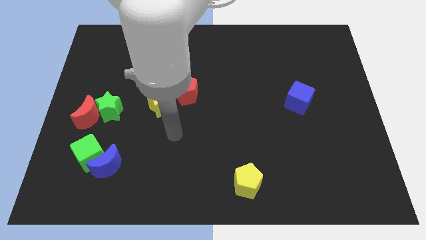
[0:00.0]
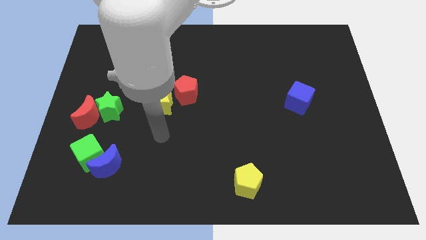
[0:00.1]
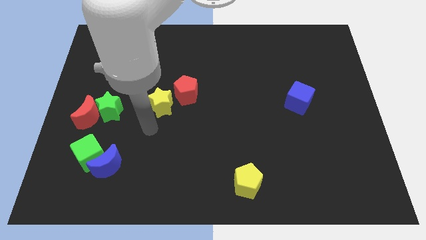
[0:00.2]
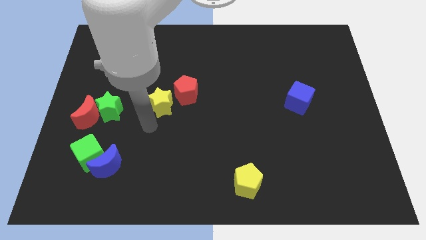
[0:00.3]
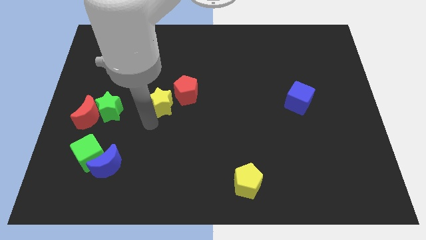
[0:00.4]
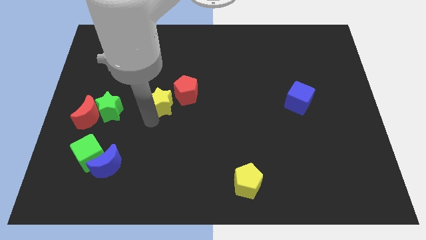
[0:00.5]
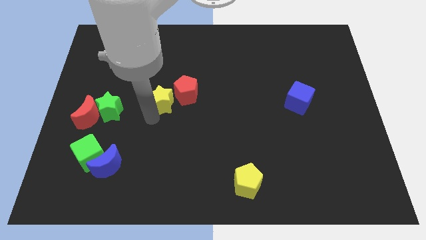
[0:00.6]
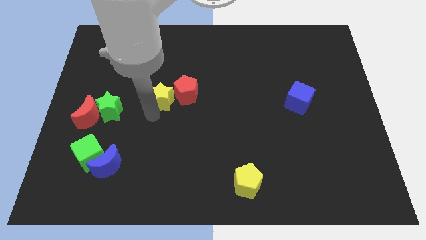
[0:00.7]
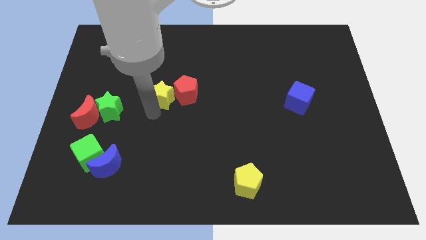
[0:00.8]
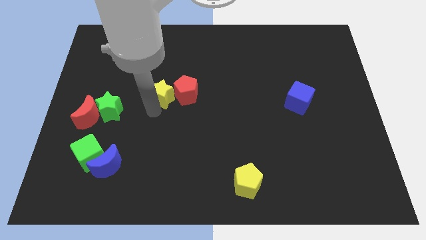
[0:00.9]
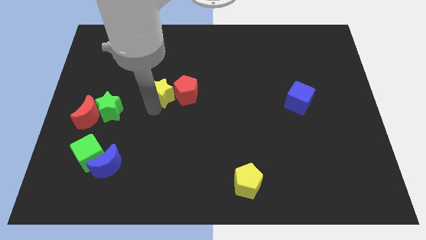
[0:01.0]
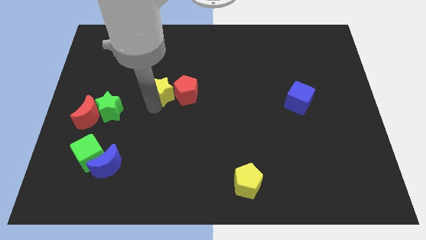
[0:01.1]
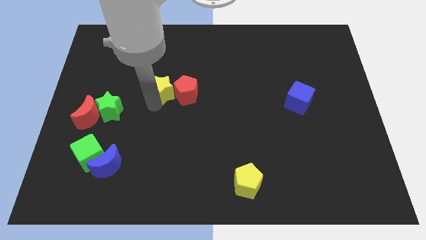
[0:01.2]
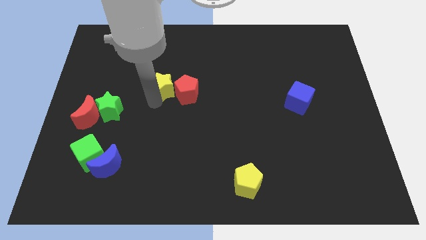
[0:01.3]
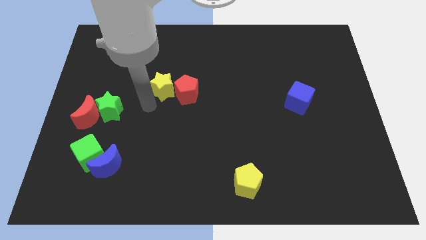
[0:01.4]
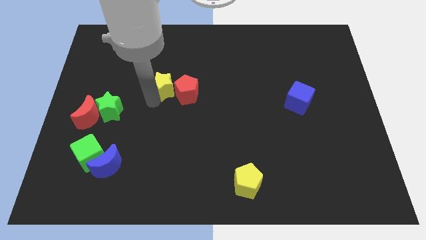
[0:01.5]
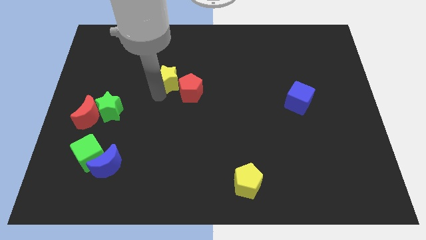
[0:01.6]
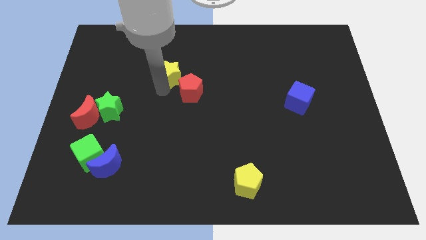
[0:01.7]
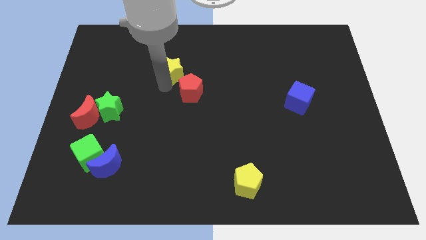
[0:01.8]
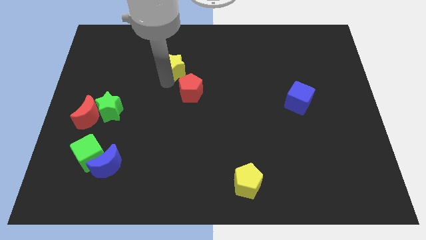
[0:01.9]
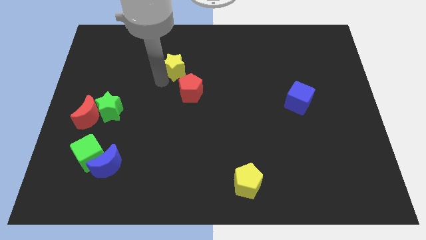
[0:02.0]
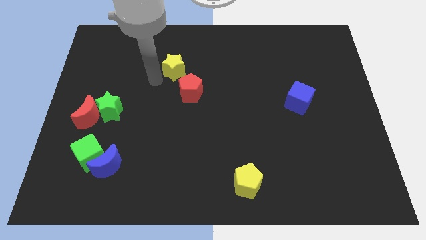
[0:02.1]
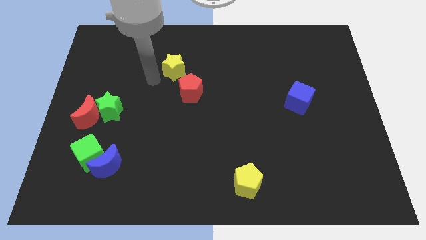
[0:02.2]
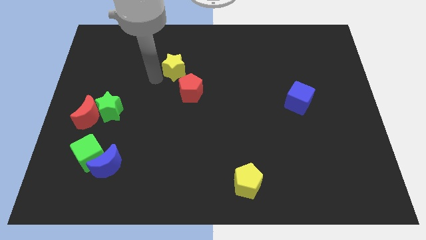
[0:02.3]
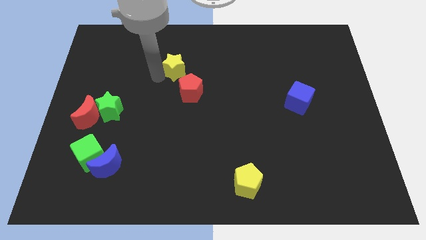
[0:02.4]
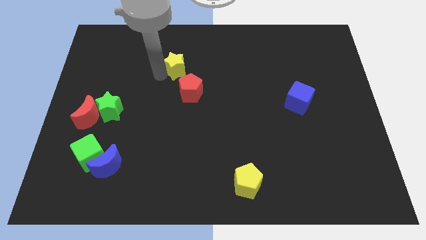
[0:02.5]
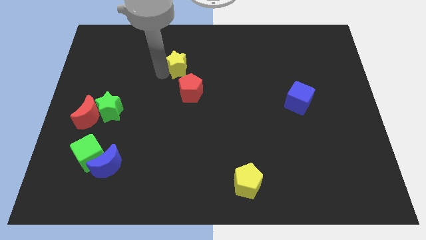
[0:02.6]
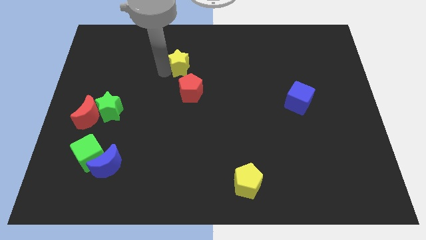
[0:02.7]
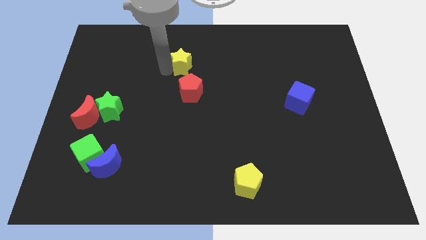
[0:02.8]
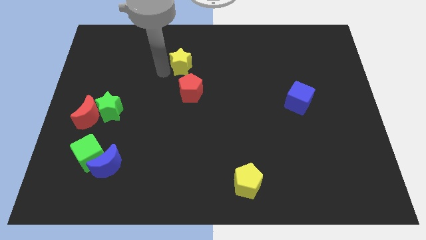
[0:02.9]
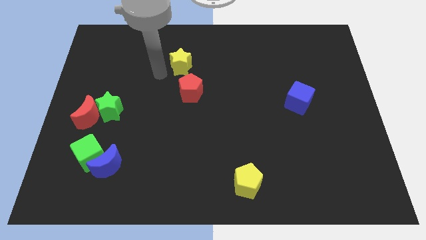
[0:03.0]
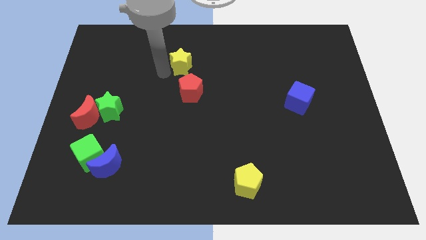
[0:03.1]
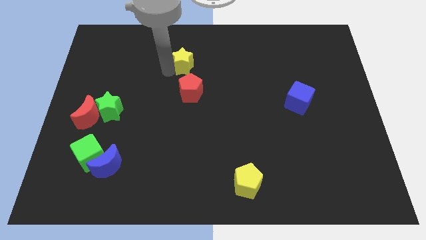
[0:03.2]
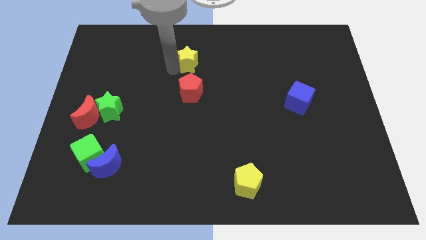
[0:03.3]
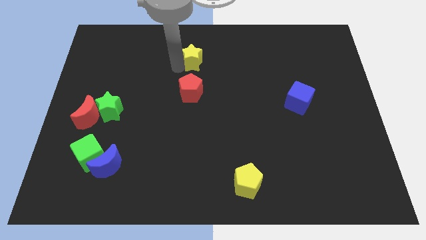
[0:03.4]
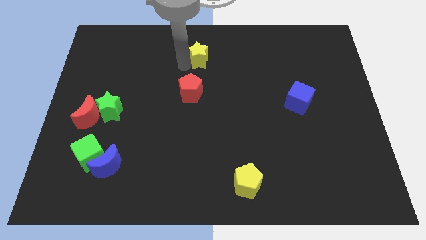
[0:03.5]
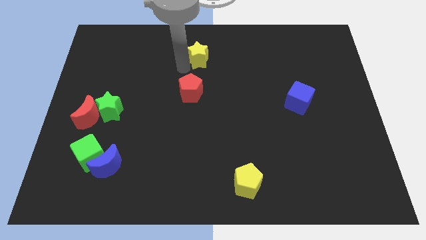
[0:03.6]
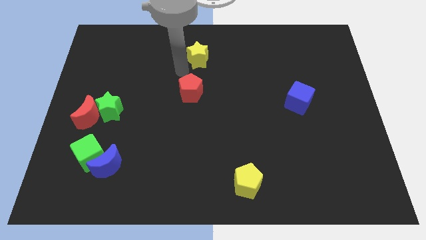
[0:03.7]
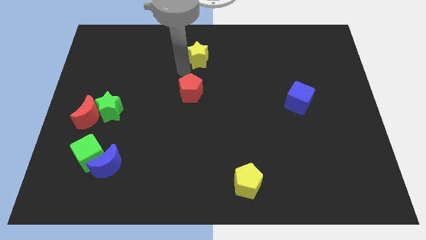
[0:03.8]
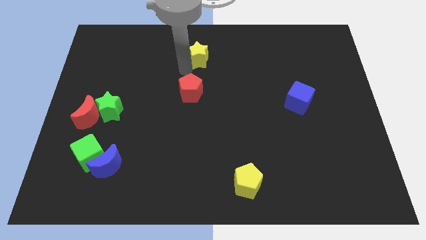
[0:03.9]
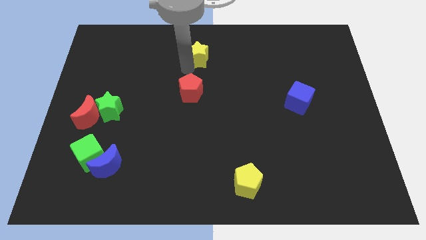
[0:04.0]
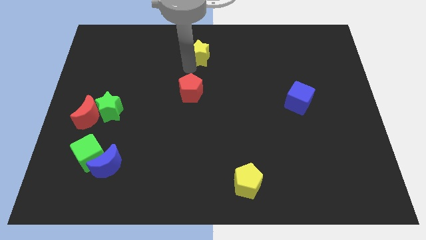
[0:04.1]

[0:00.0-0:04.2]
move the yellow star to the top

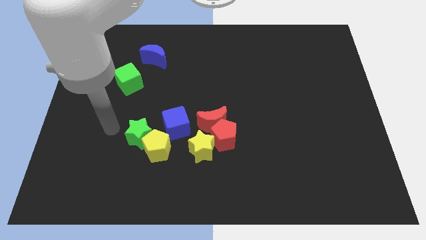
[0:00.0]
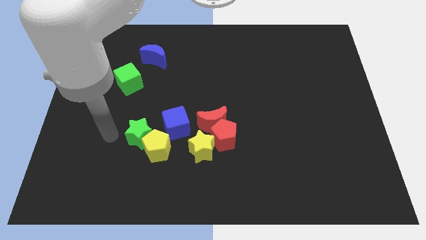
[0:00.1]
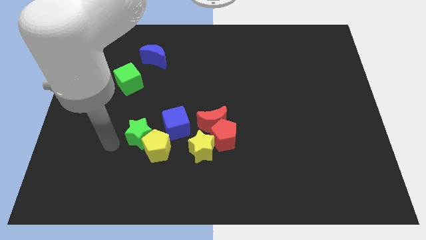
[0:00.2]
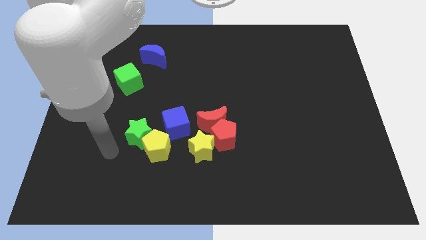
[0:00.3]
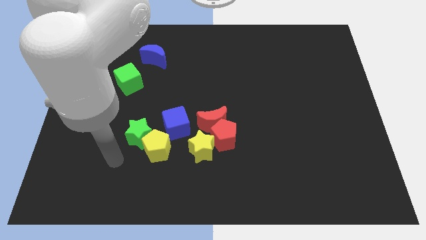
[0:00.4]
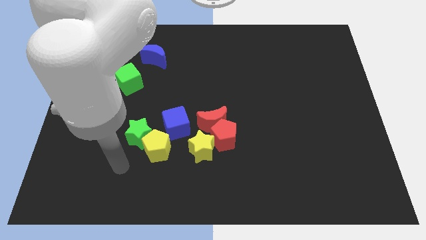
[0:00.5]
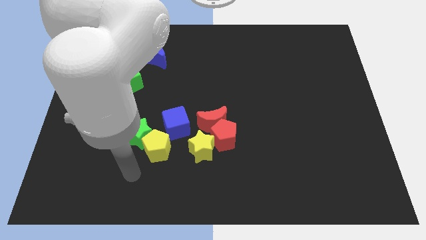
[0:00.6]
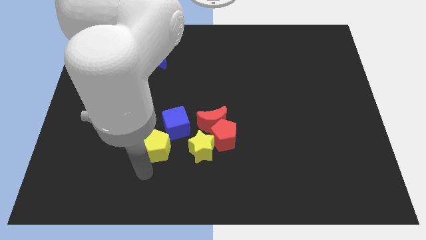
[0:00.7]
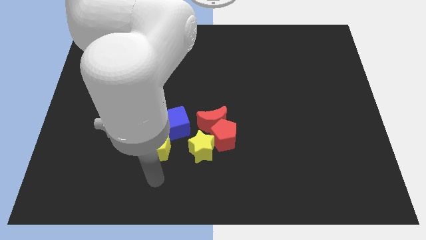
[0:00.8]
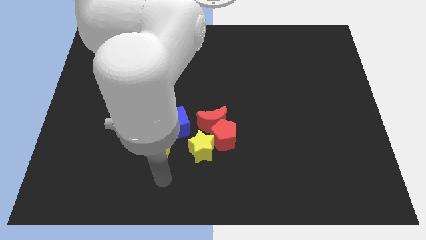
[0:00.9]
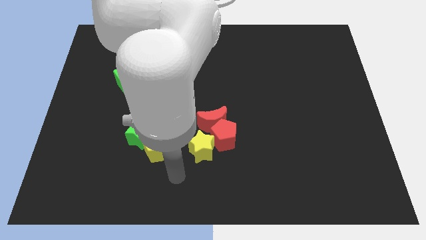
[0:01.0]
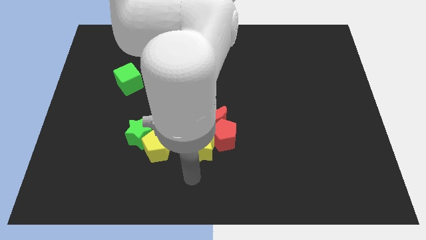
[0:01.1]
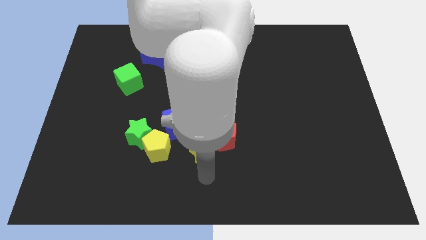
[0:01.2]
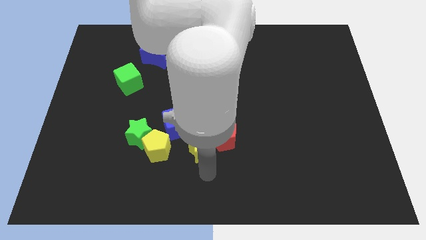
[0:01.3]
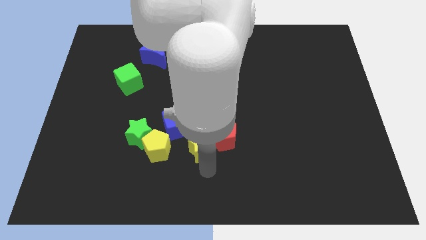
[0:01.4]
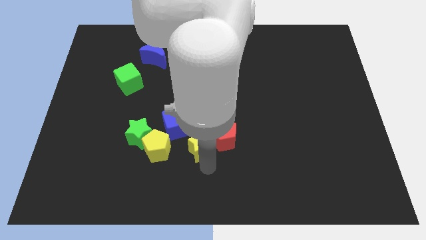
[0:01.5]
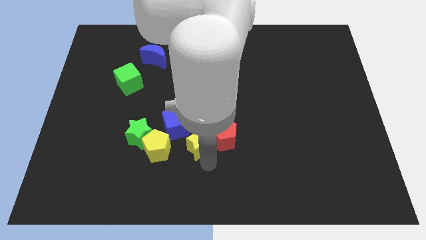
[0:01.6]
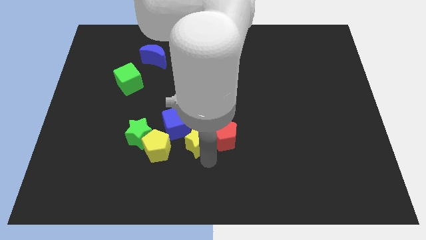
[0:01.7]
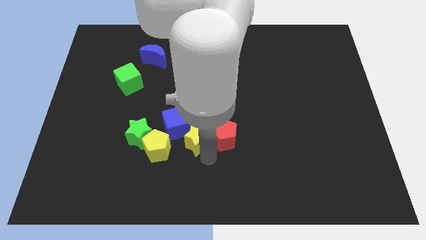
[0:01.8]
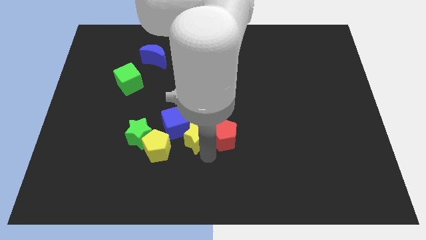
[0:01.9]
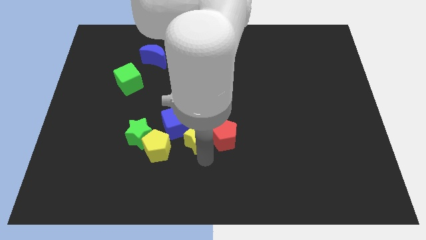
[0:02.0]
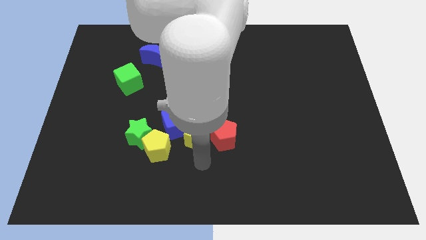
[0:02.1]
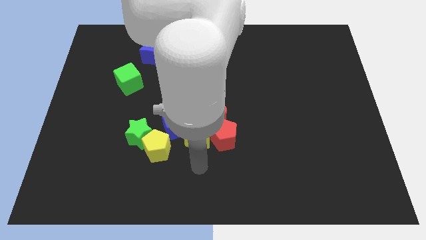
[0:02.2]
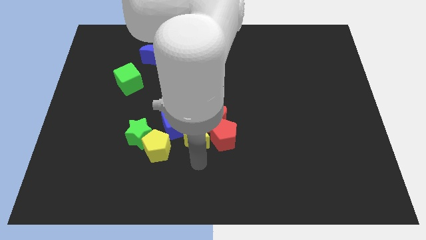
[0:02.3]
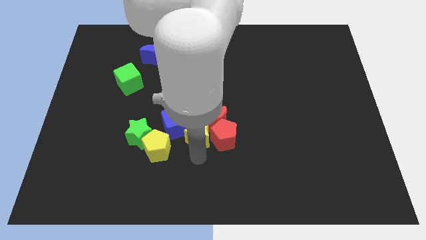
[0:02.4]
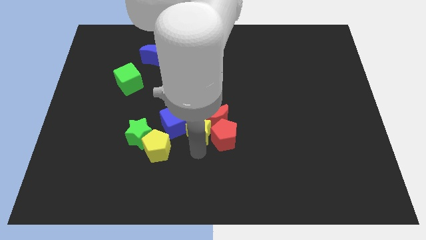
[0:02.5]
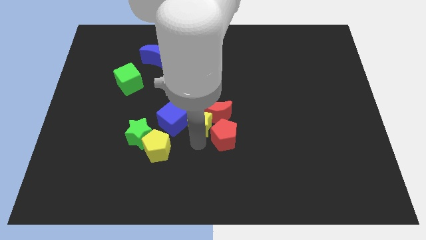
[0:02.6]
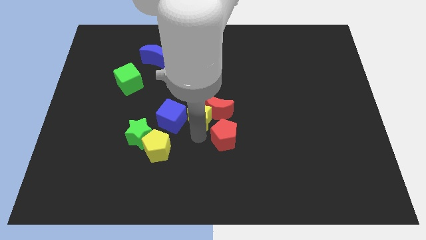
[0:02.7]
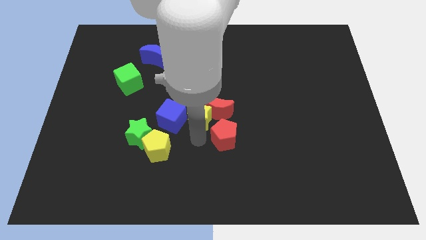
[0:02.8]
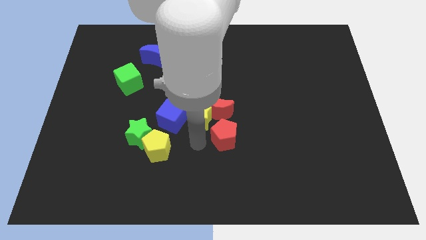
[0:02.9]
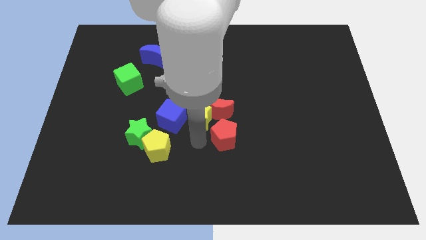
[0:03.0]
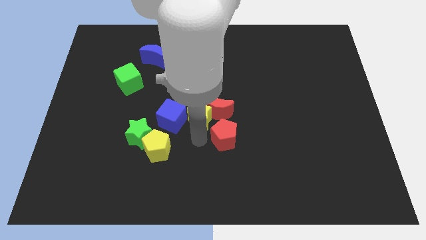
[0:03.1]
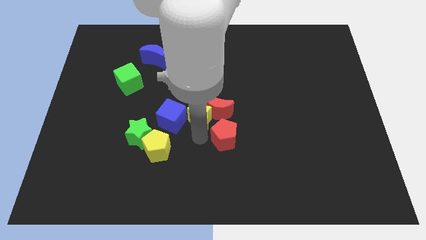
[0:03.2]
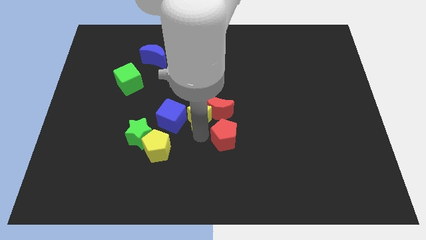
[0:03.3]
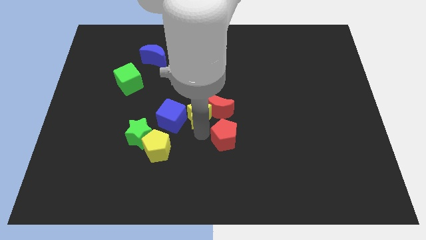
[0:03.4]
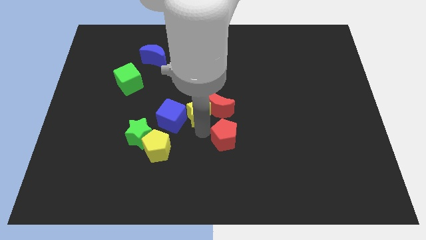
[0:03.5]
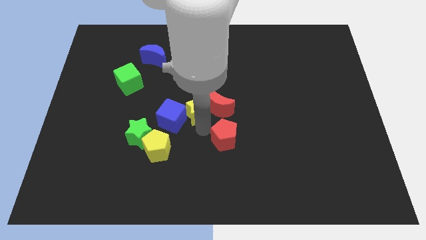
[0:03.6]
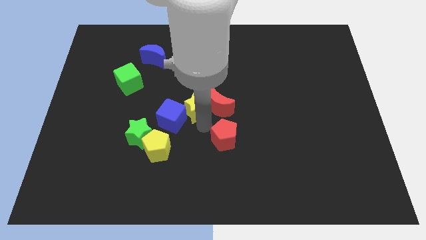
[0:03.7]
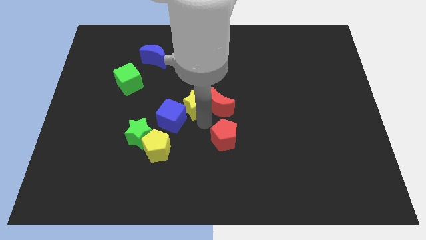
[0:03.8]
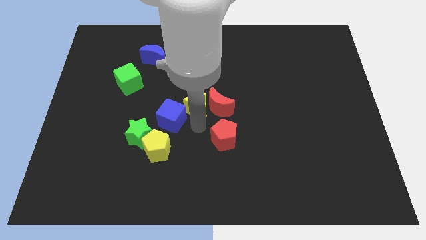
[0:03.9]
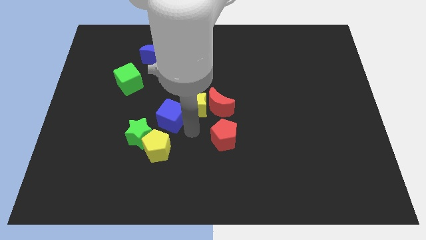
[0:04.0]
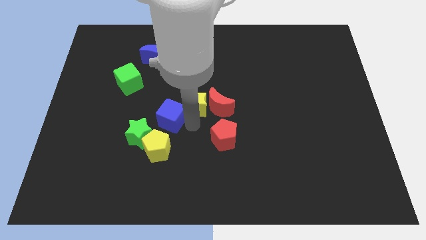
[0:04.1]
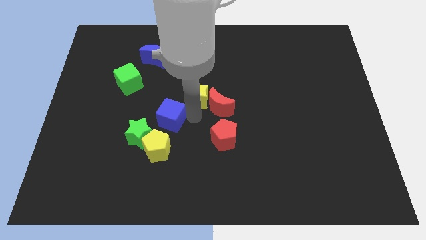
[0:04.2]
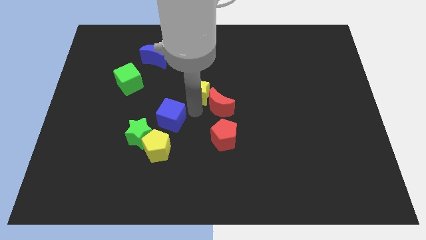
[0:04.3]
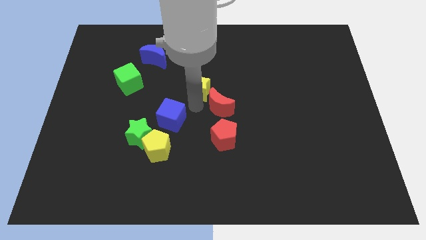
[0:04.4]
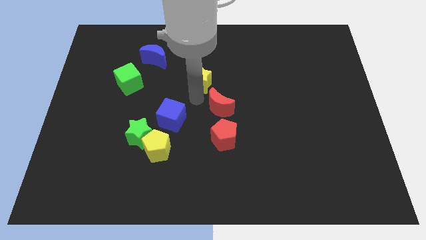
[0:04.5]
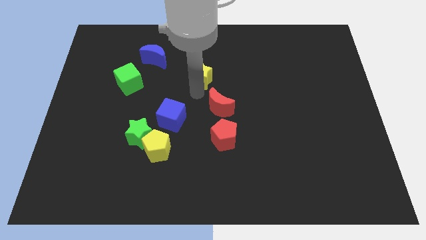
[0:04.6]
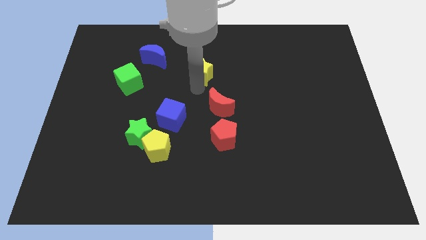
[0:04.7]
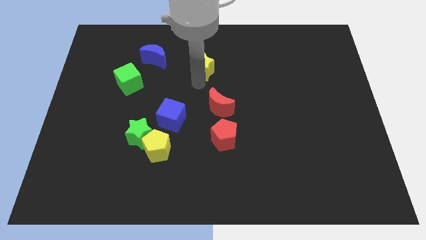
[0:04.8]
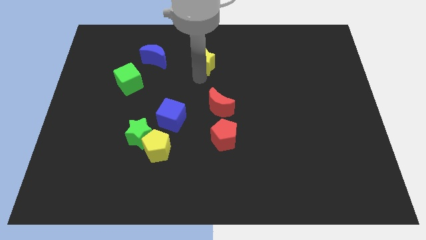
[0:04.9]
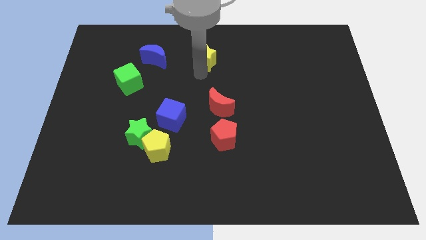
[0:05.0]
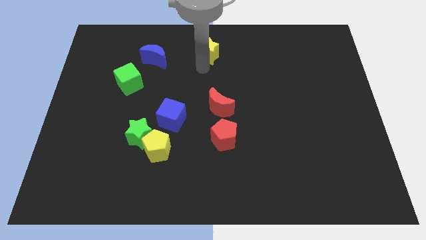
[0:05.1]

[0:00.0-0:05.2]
put the yellow star to the top
